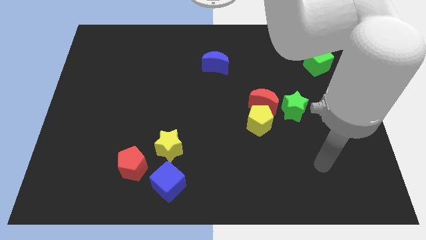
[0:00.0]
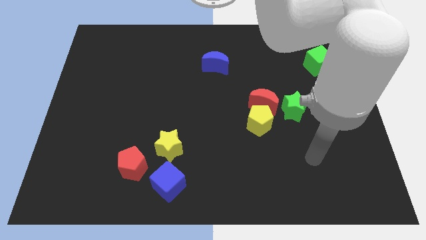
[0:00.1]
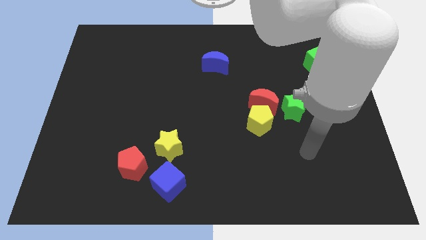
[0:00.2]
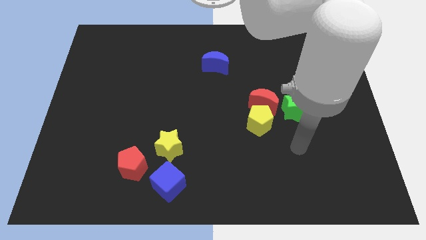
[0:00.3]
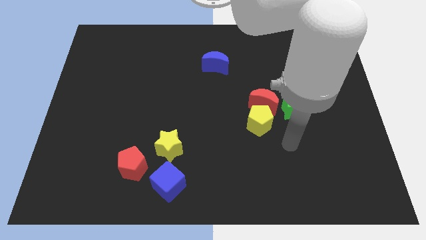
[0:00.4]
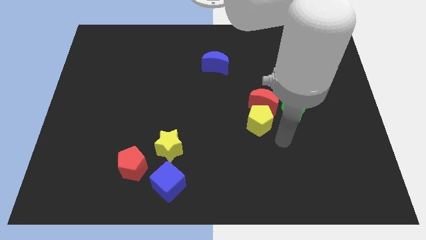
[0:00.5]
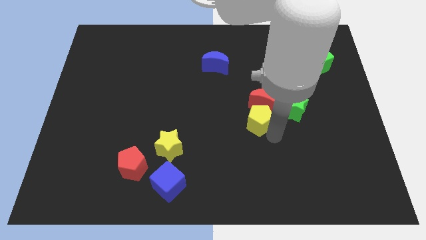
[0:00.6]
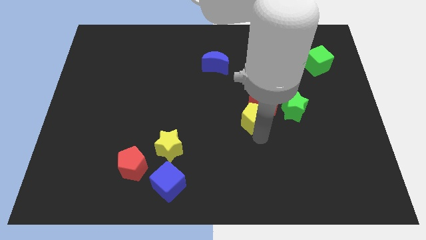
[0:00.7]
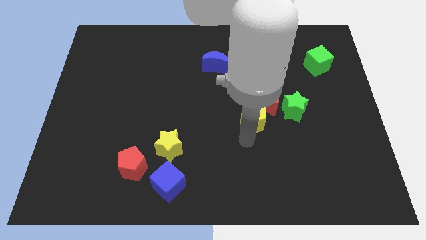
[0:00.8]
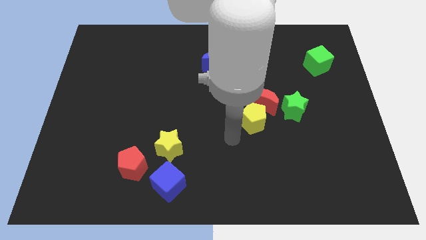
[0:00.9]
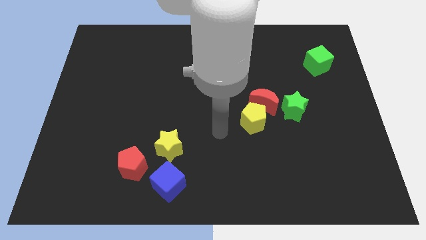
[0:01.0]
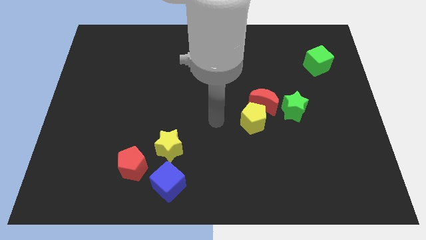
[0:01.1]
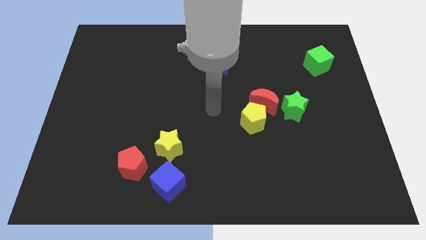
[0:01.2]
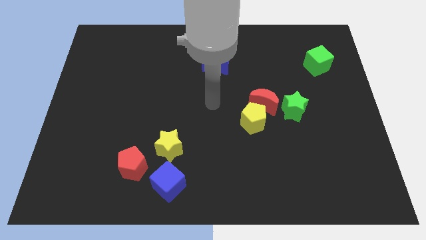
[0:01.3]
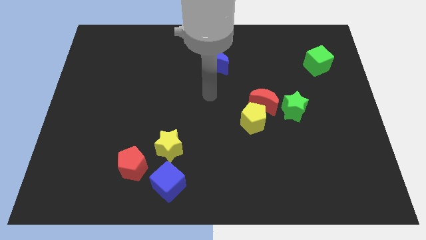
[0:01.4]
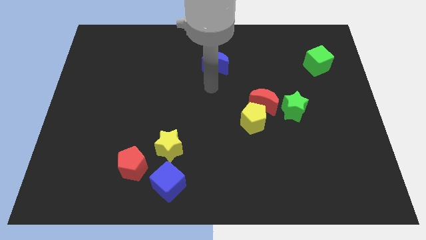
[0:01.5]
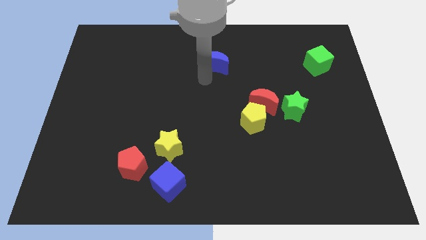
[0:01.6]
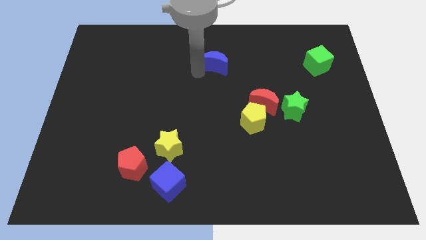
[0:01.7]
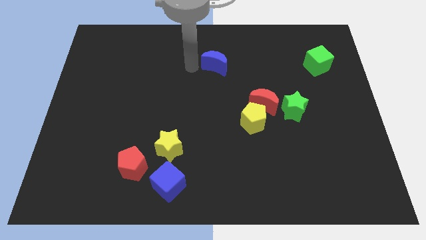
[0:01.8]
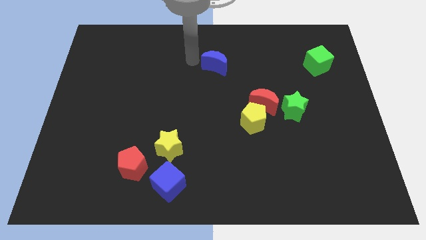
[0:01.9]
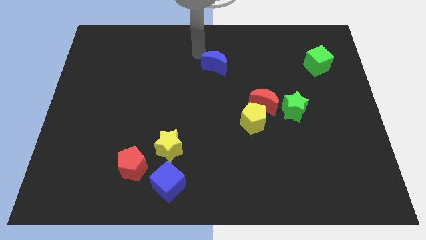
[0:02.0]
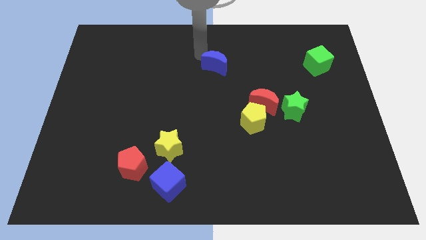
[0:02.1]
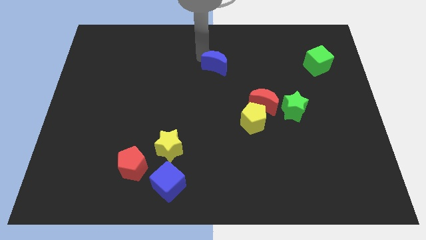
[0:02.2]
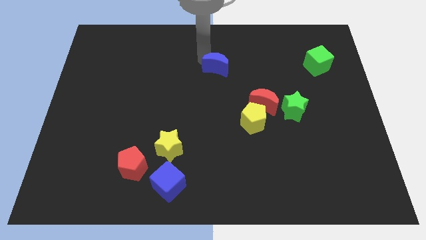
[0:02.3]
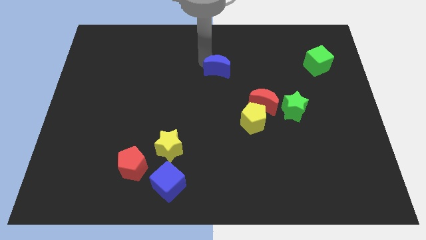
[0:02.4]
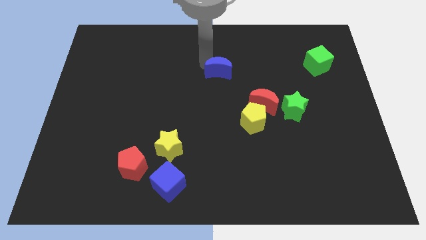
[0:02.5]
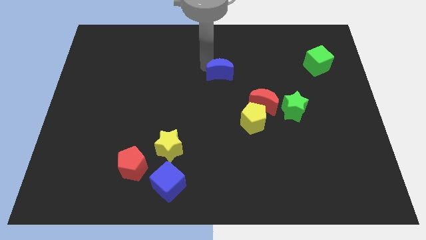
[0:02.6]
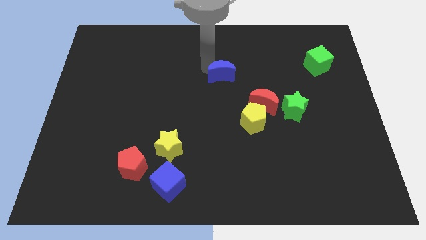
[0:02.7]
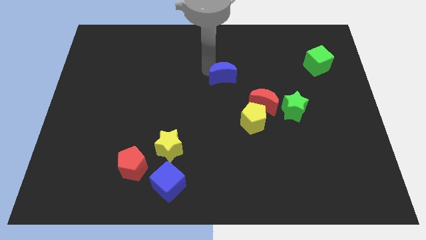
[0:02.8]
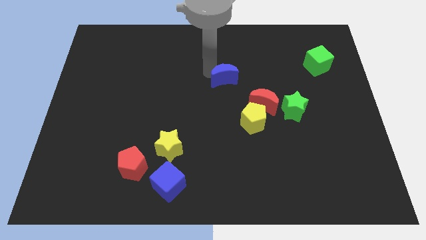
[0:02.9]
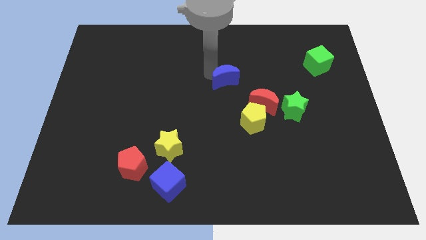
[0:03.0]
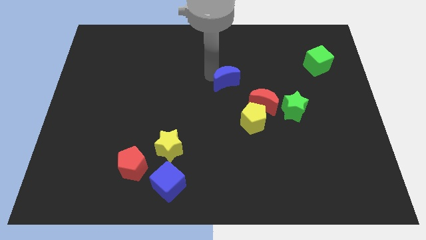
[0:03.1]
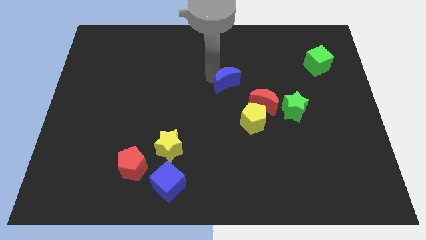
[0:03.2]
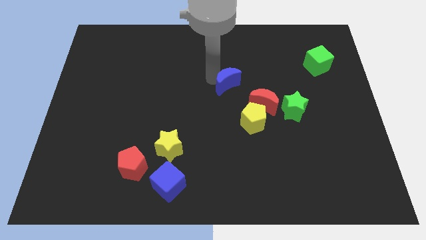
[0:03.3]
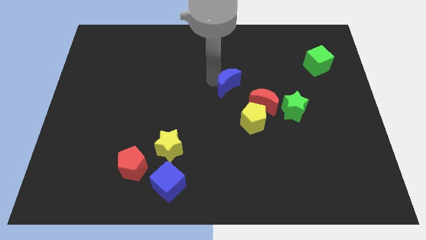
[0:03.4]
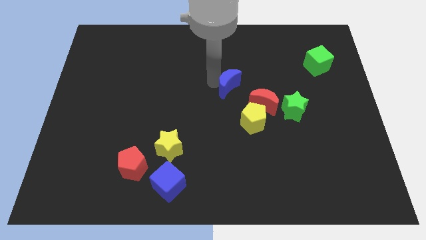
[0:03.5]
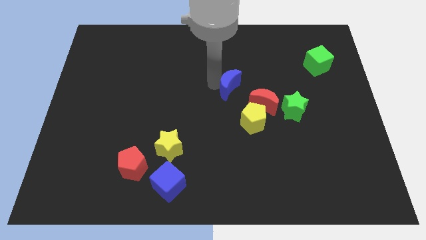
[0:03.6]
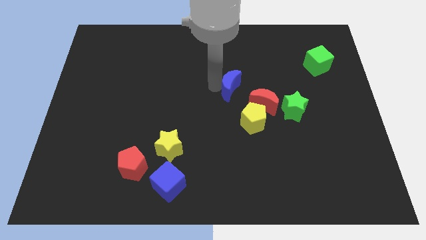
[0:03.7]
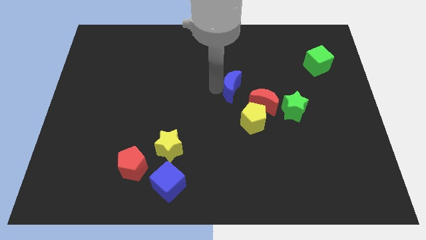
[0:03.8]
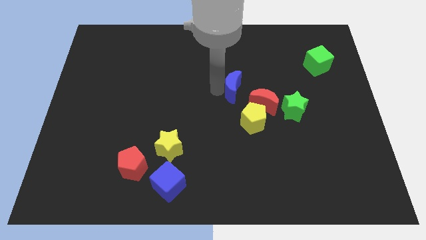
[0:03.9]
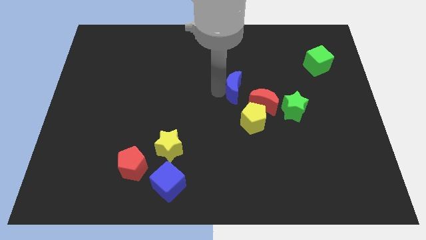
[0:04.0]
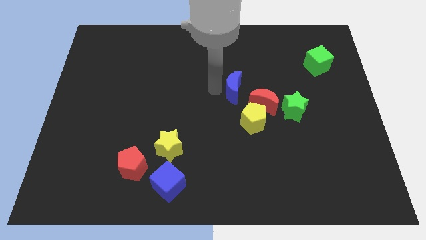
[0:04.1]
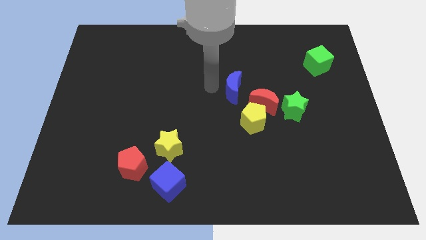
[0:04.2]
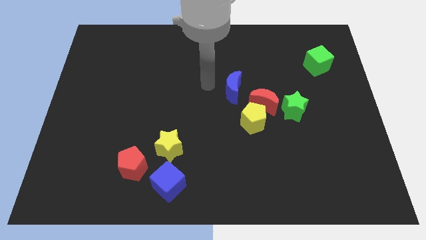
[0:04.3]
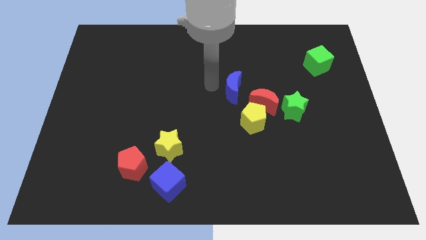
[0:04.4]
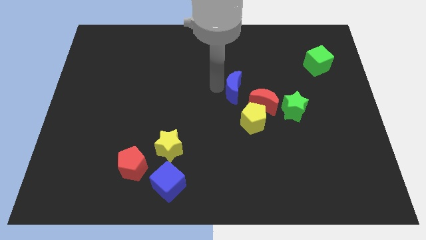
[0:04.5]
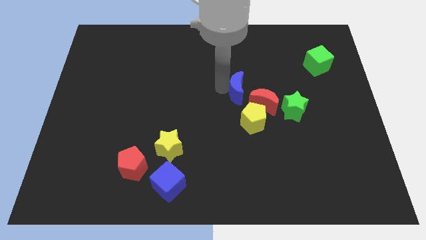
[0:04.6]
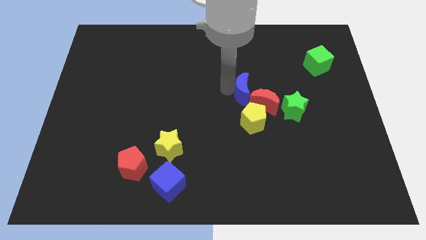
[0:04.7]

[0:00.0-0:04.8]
put the blue moon to the red moon

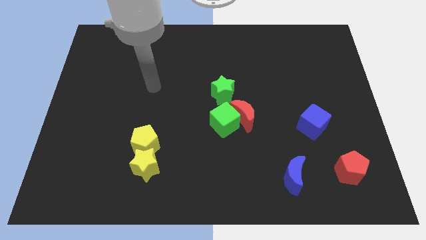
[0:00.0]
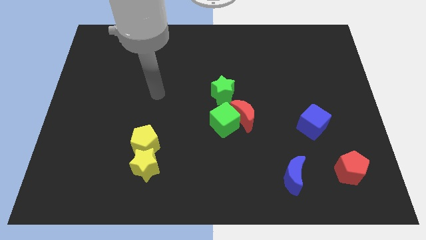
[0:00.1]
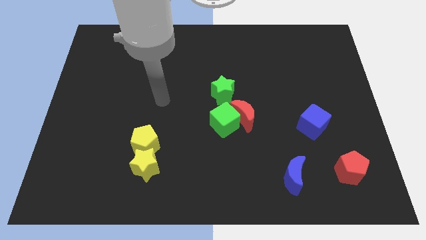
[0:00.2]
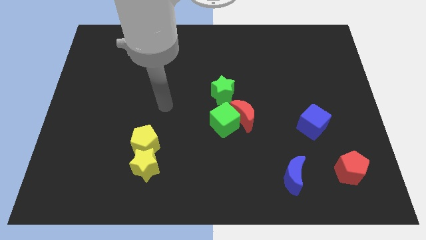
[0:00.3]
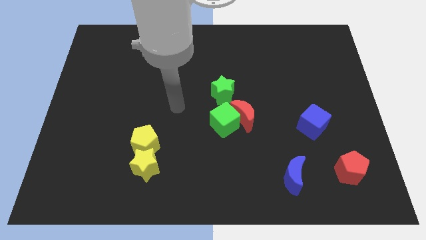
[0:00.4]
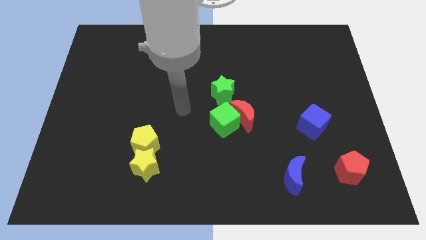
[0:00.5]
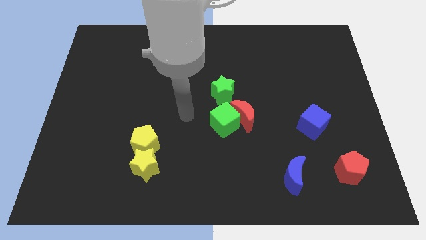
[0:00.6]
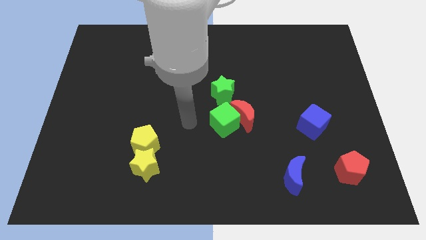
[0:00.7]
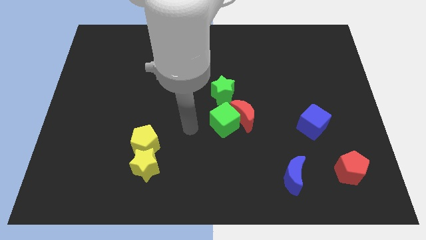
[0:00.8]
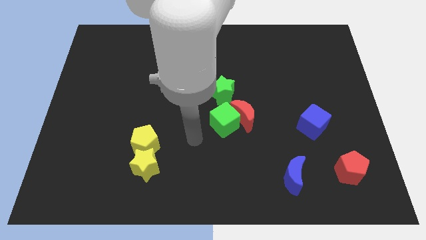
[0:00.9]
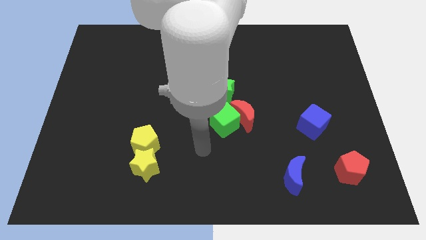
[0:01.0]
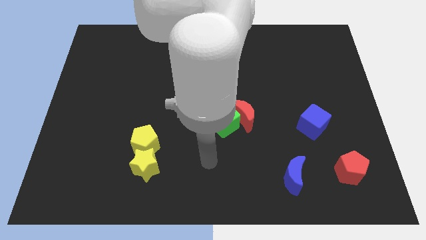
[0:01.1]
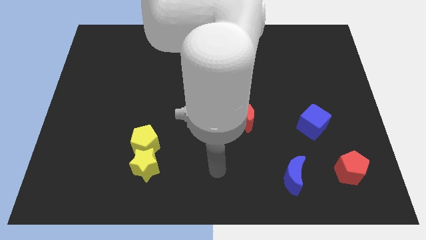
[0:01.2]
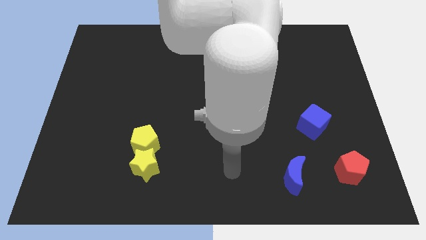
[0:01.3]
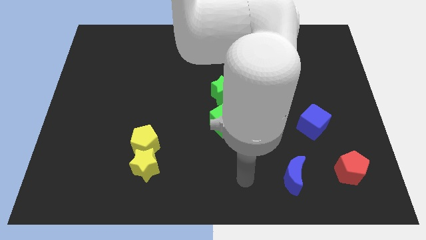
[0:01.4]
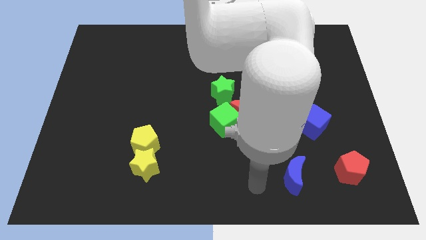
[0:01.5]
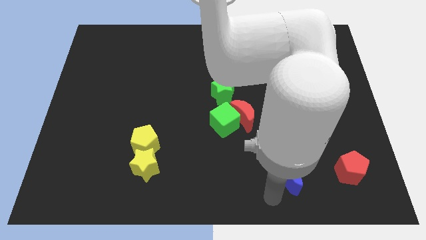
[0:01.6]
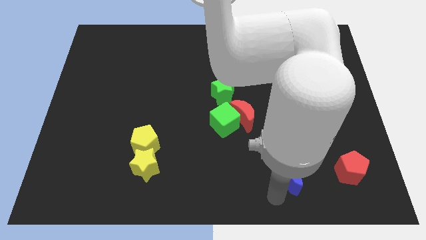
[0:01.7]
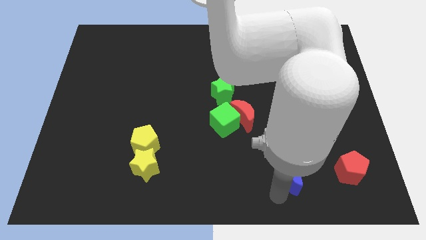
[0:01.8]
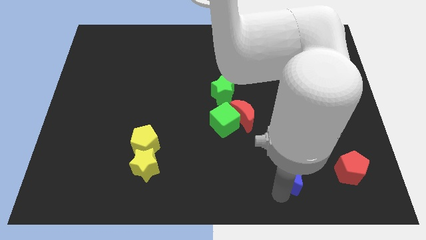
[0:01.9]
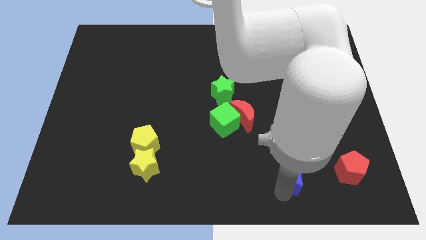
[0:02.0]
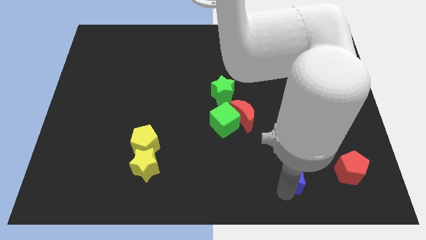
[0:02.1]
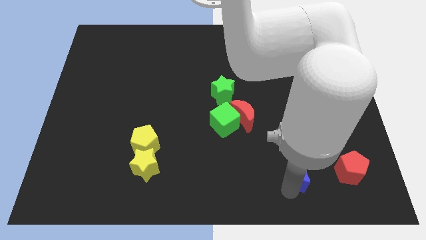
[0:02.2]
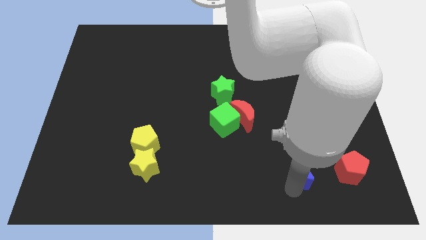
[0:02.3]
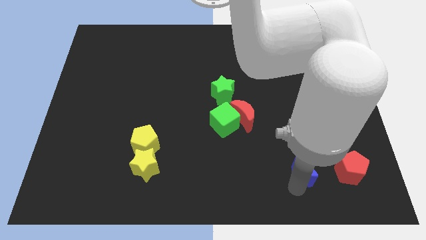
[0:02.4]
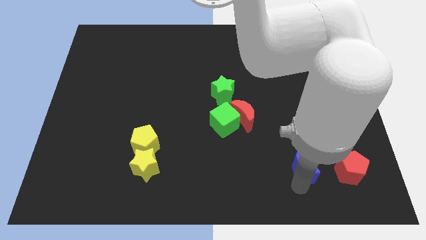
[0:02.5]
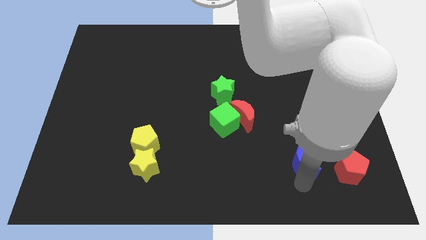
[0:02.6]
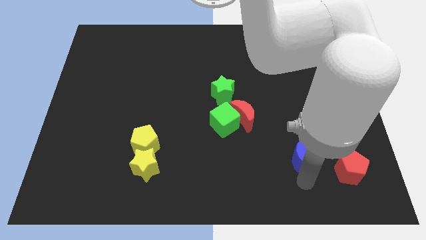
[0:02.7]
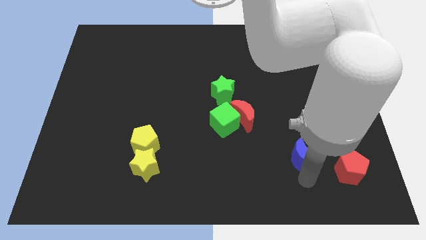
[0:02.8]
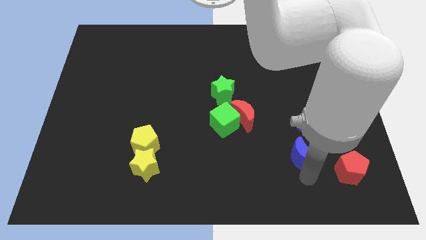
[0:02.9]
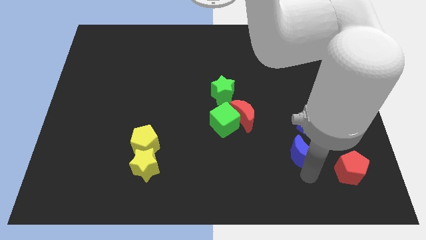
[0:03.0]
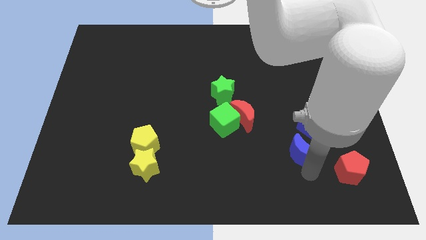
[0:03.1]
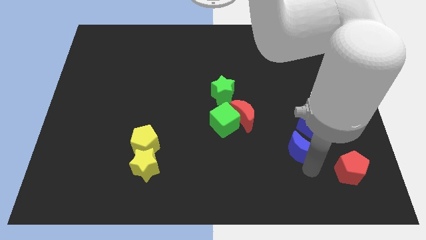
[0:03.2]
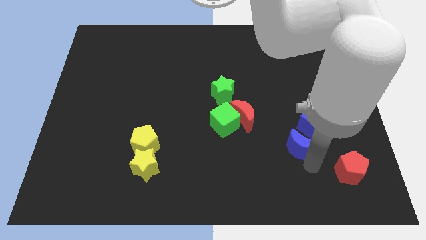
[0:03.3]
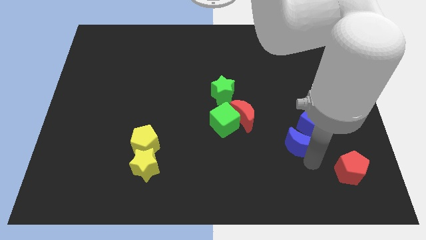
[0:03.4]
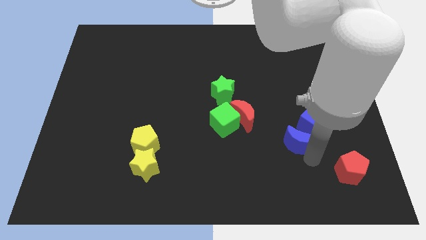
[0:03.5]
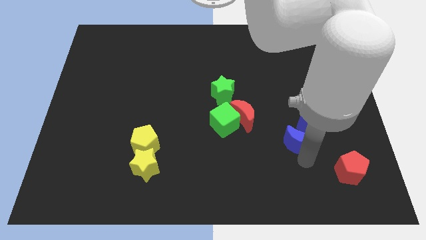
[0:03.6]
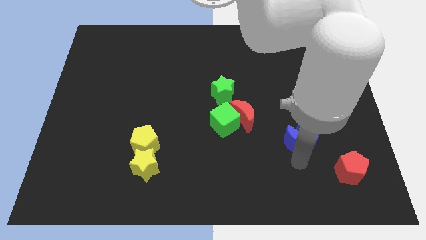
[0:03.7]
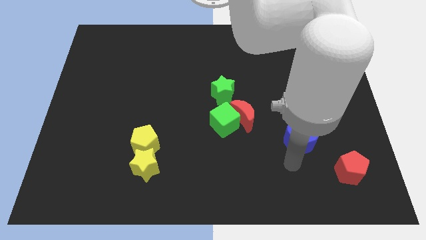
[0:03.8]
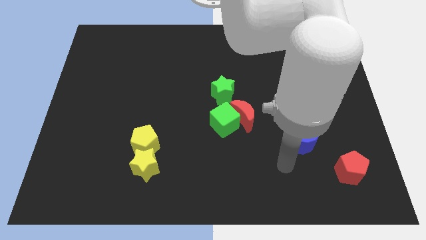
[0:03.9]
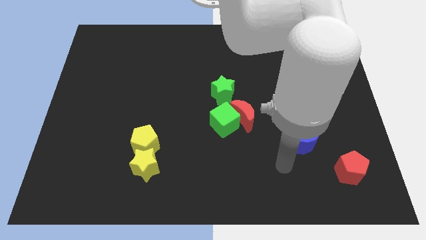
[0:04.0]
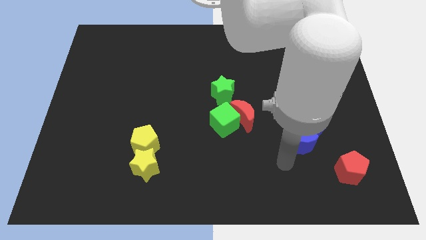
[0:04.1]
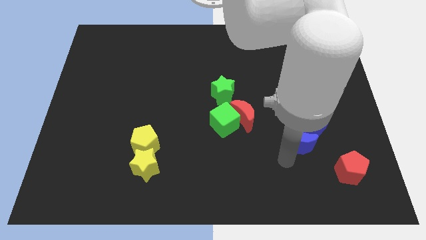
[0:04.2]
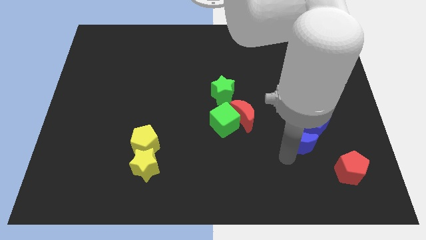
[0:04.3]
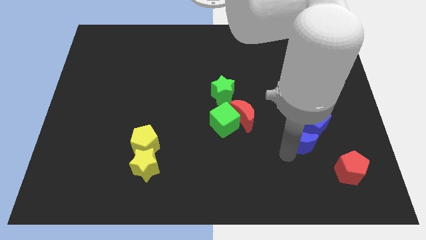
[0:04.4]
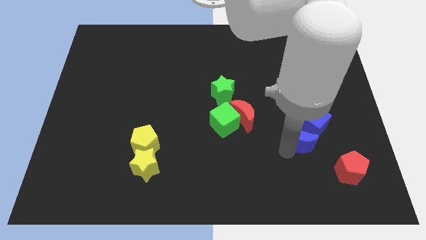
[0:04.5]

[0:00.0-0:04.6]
push the blue moon to the blue cube
